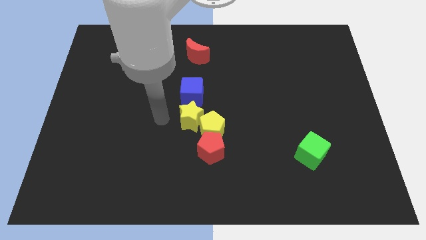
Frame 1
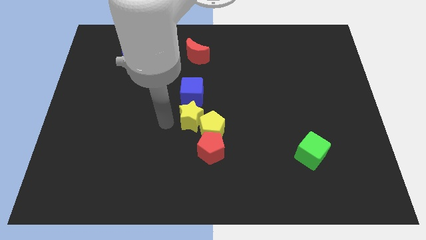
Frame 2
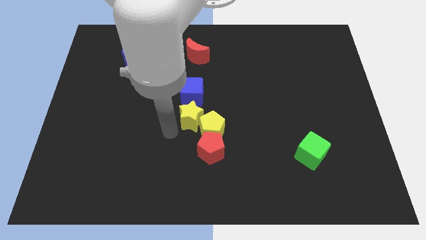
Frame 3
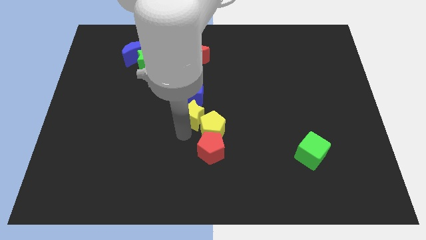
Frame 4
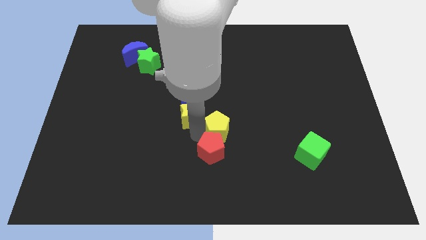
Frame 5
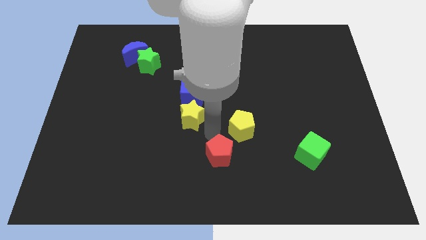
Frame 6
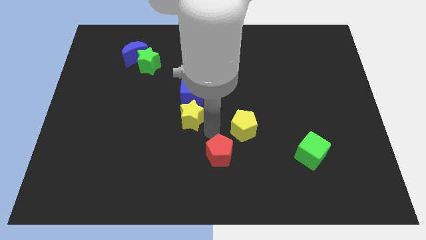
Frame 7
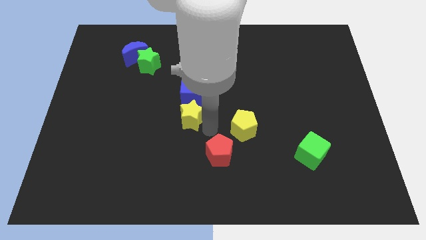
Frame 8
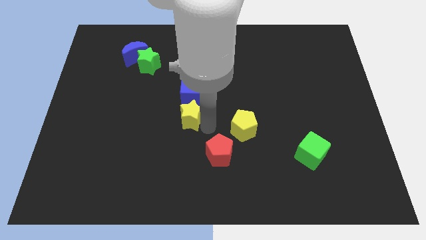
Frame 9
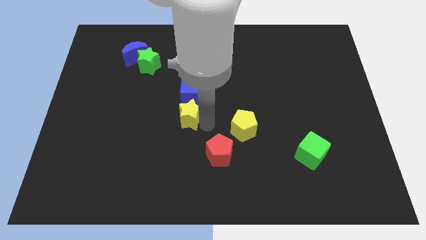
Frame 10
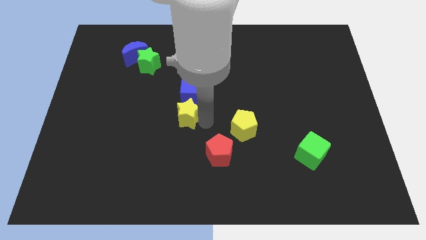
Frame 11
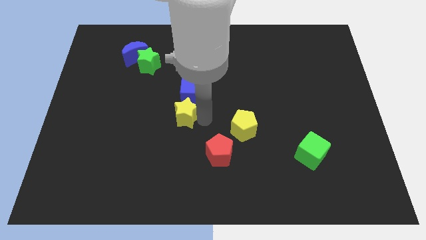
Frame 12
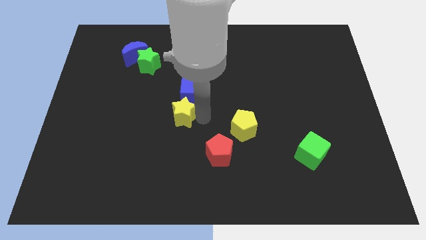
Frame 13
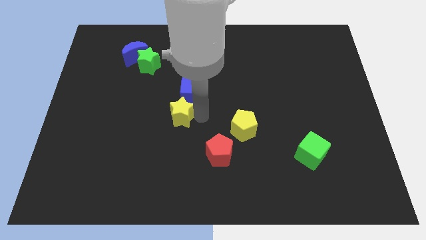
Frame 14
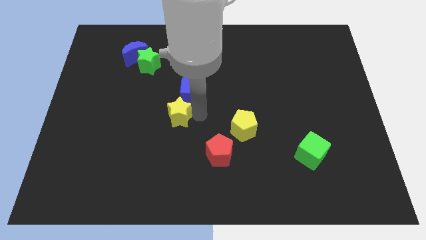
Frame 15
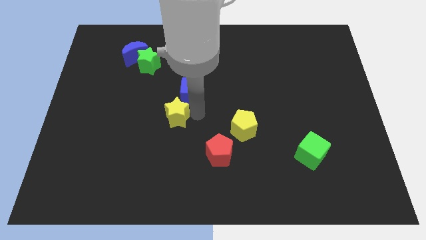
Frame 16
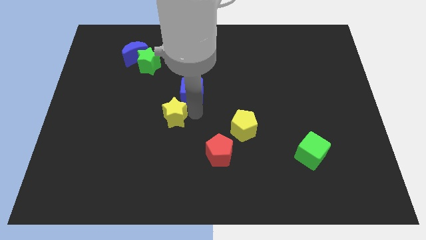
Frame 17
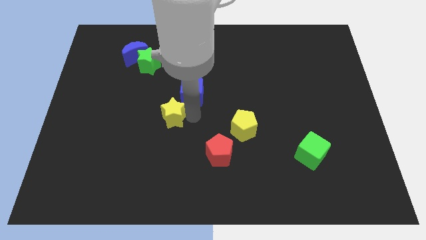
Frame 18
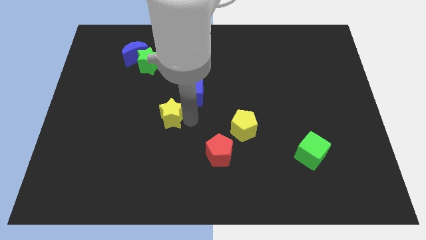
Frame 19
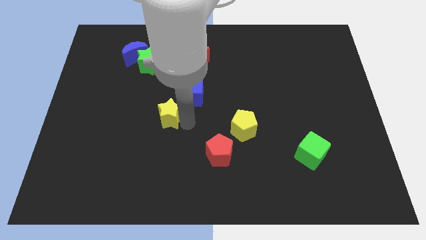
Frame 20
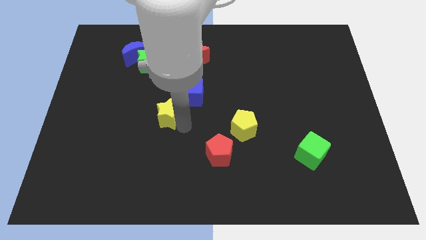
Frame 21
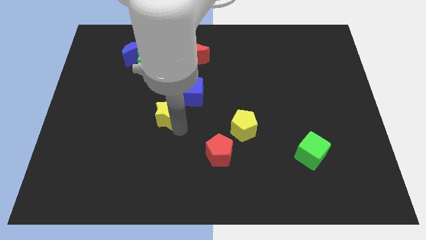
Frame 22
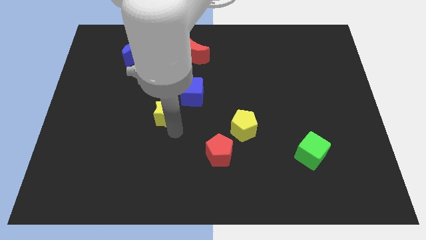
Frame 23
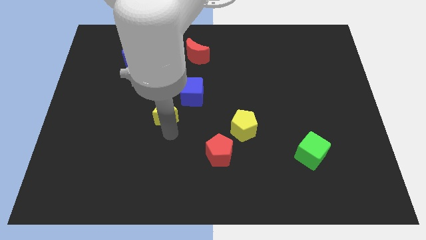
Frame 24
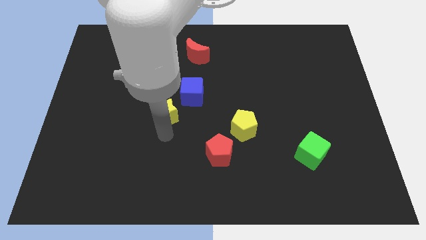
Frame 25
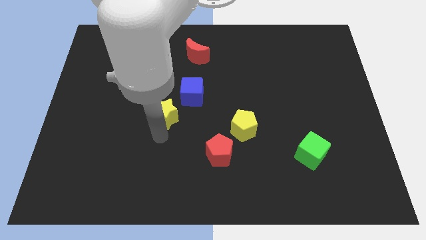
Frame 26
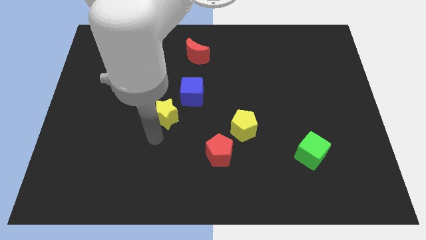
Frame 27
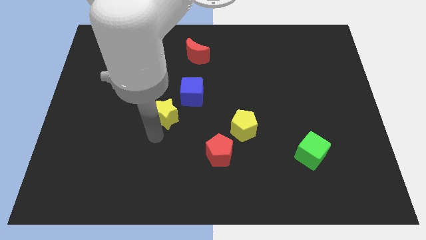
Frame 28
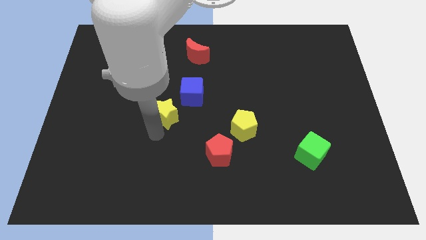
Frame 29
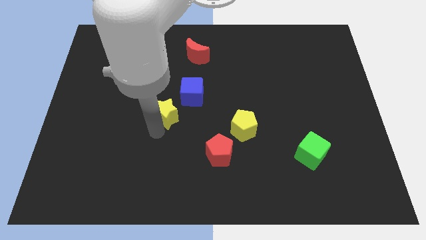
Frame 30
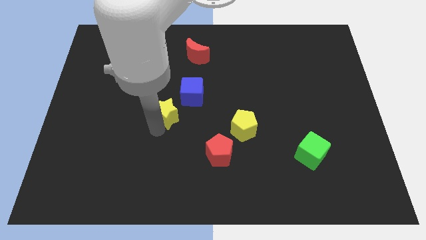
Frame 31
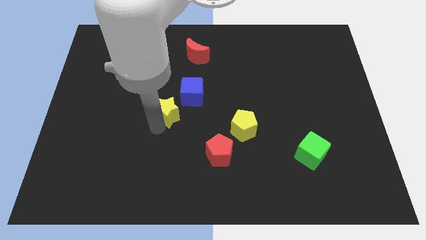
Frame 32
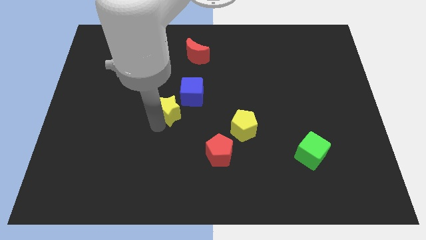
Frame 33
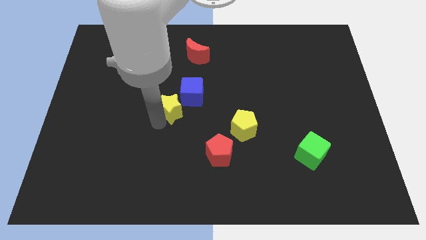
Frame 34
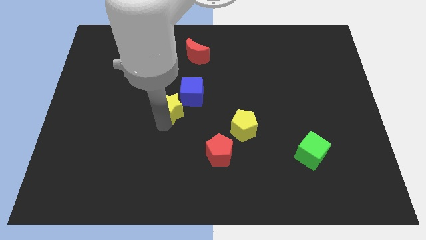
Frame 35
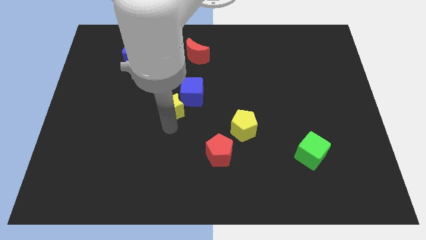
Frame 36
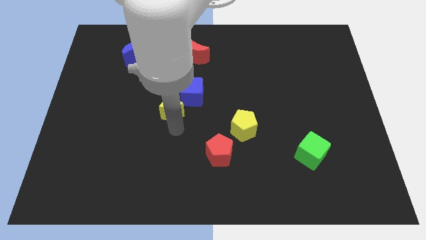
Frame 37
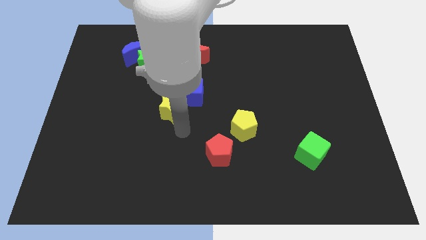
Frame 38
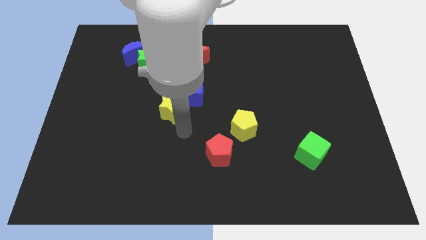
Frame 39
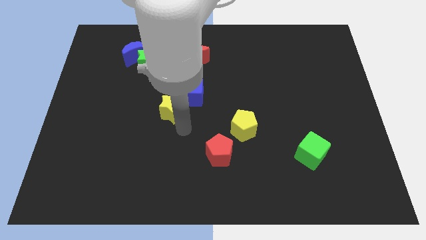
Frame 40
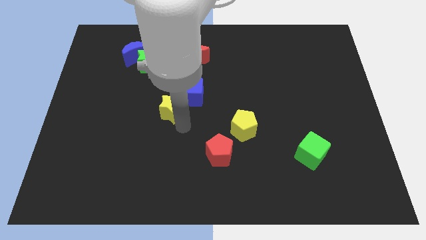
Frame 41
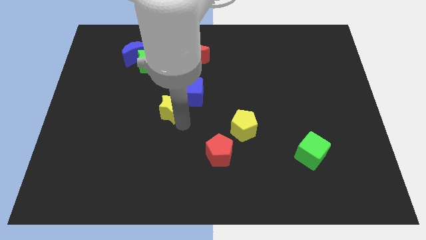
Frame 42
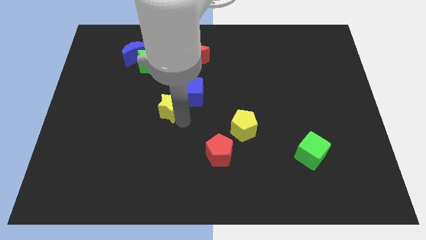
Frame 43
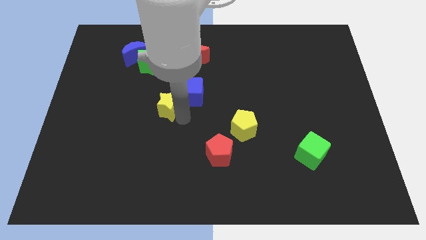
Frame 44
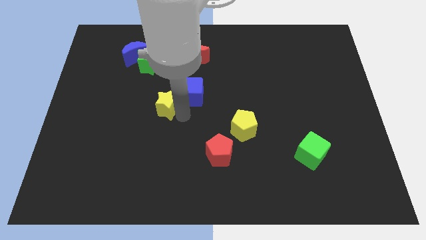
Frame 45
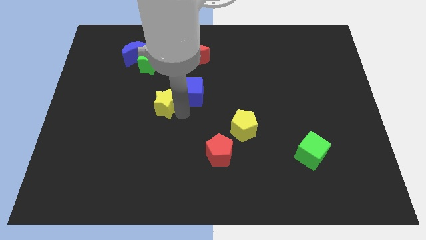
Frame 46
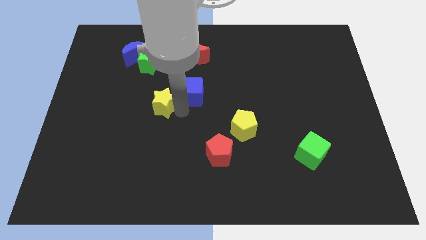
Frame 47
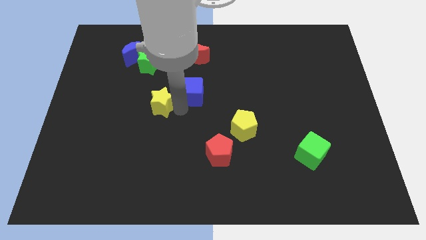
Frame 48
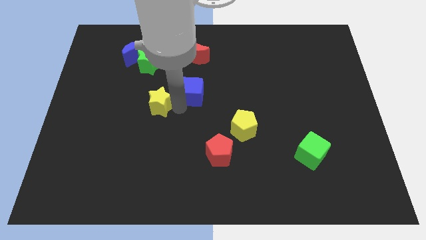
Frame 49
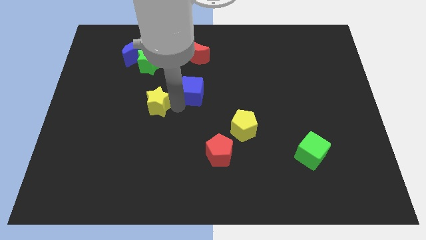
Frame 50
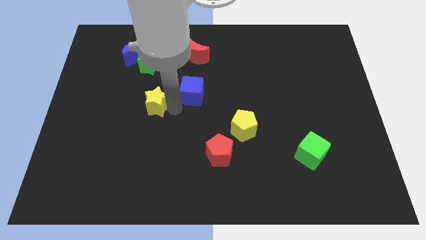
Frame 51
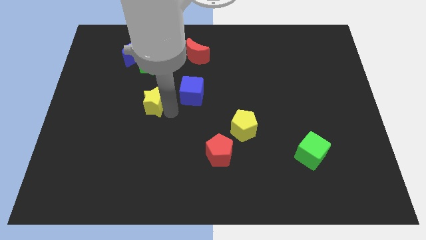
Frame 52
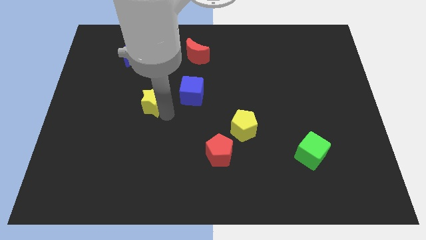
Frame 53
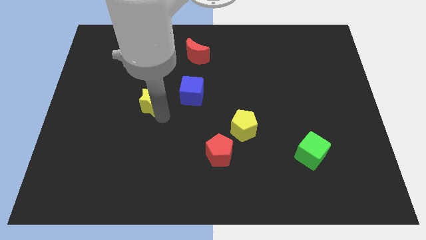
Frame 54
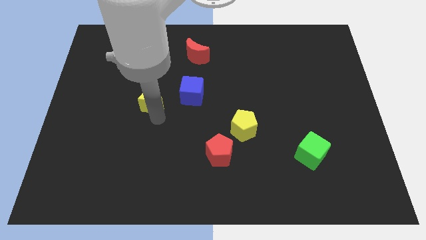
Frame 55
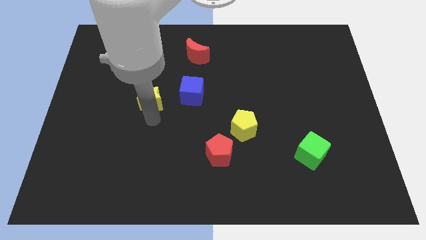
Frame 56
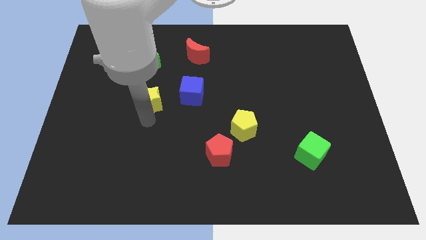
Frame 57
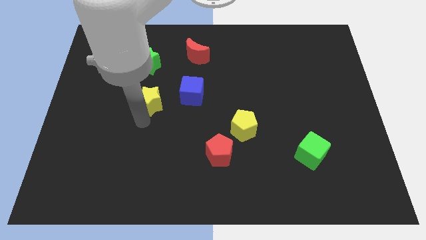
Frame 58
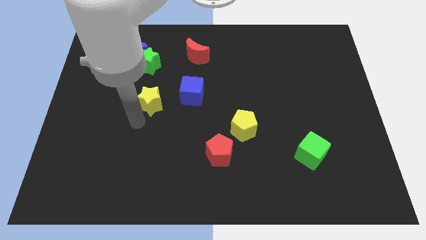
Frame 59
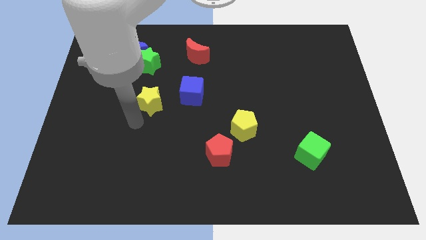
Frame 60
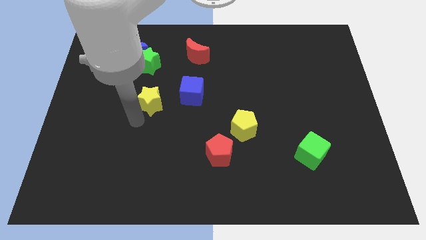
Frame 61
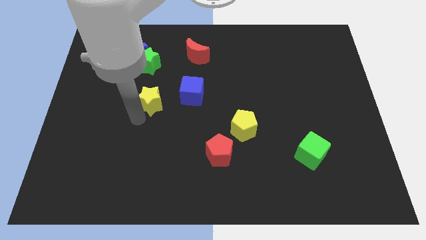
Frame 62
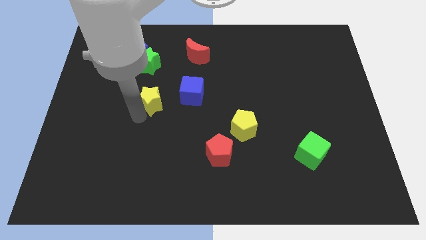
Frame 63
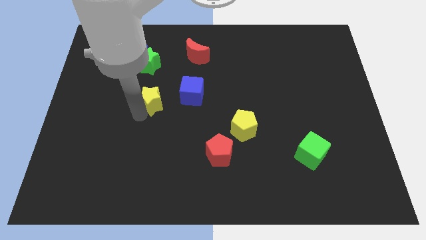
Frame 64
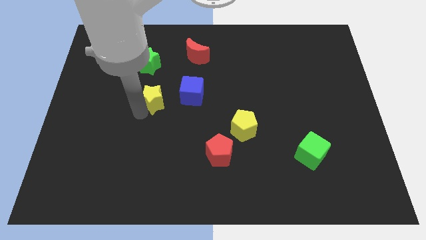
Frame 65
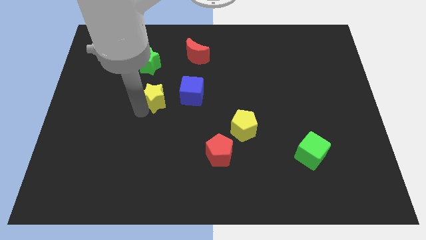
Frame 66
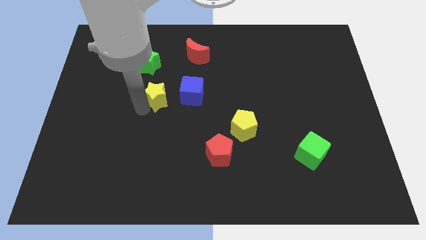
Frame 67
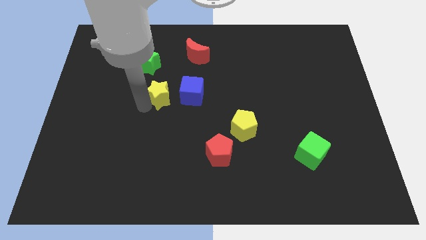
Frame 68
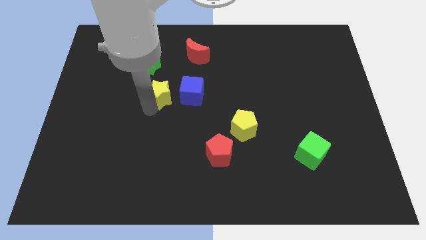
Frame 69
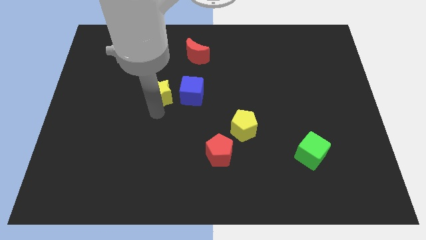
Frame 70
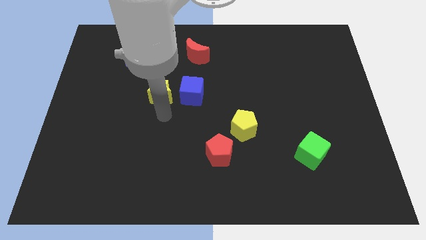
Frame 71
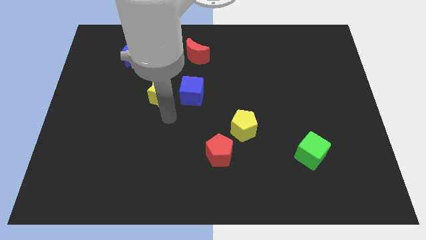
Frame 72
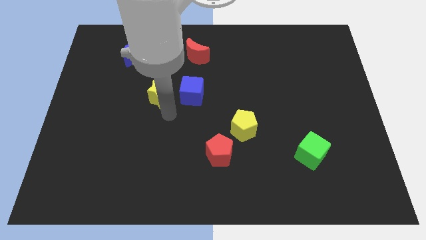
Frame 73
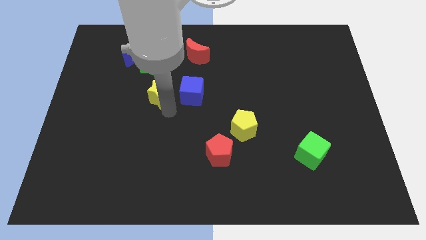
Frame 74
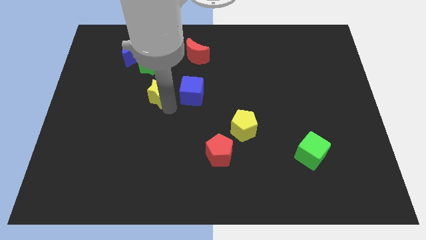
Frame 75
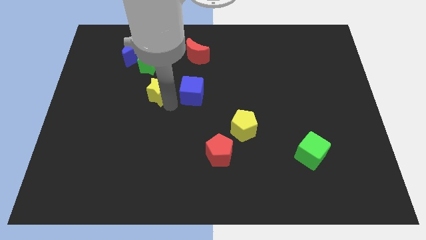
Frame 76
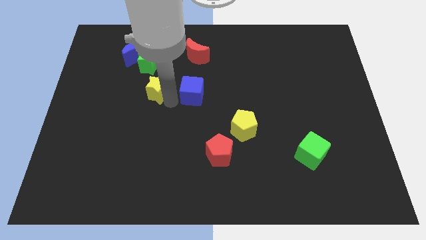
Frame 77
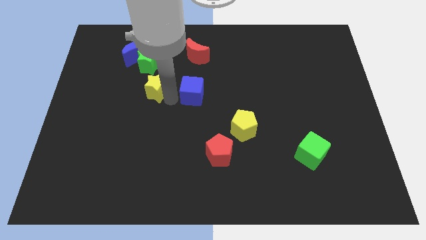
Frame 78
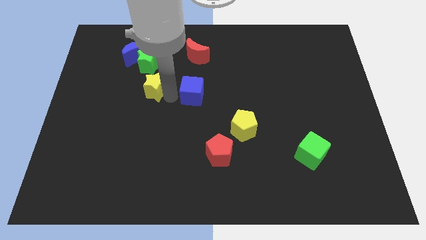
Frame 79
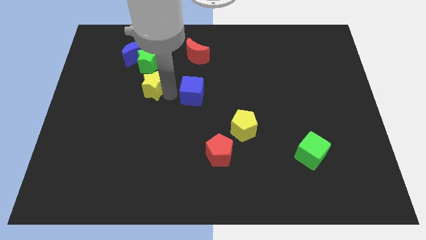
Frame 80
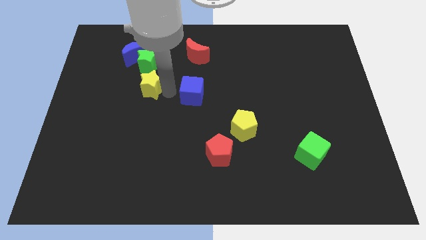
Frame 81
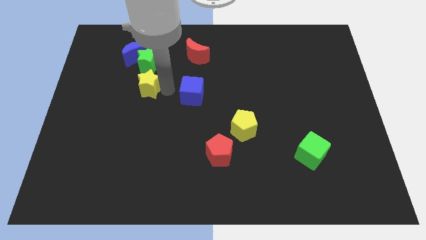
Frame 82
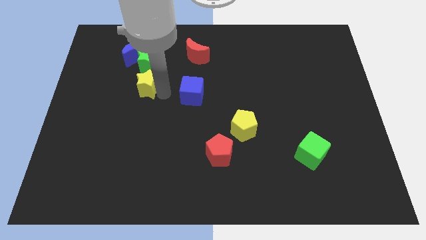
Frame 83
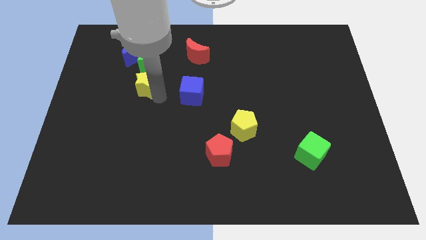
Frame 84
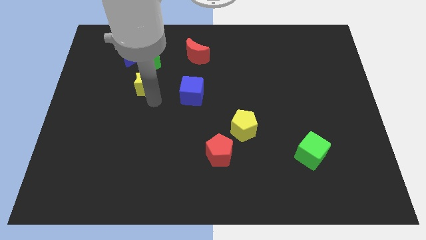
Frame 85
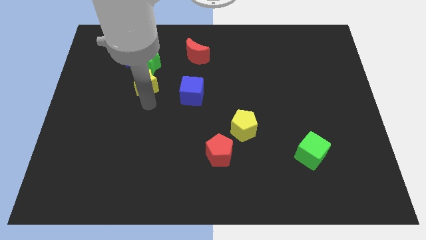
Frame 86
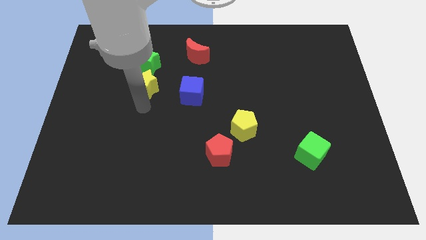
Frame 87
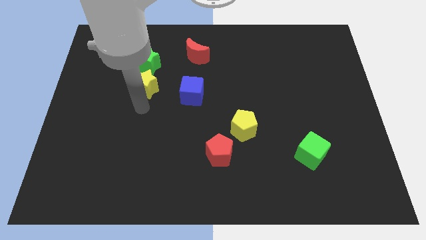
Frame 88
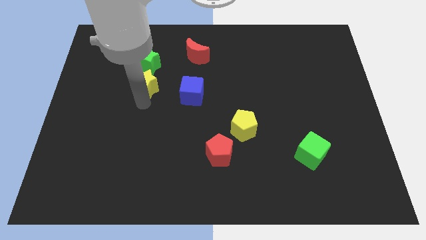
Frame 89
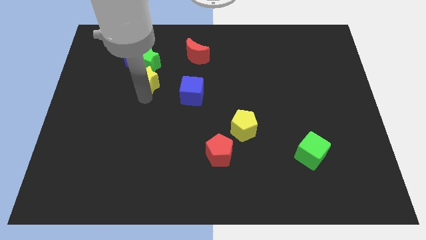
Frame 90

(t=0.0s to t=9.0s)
move the yellow star to the bottom right of the blue moon
